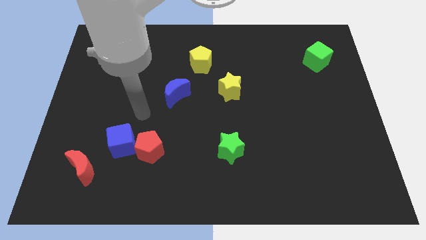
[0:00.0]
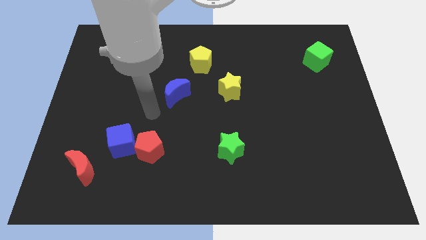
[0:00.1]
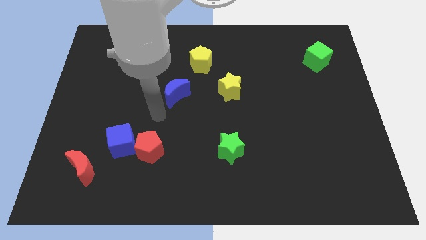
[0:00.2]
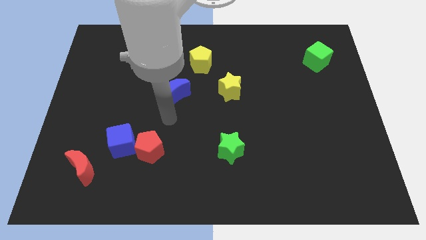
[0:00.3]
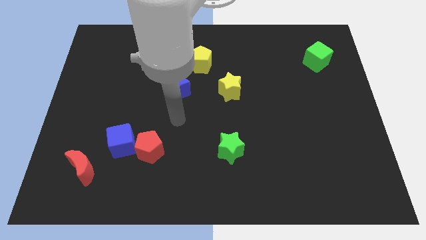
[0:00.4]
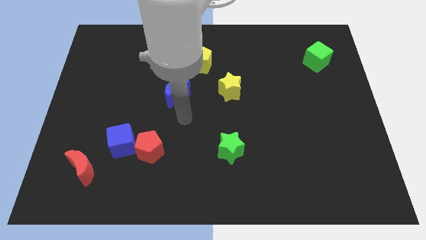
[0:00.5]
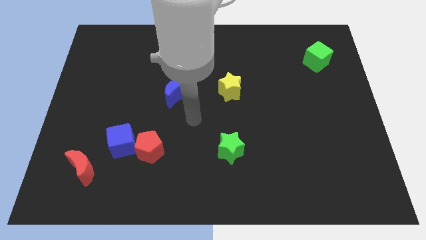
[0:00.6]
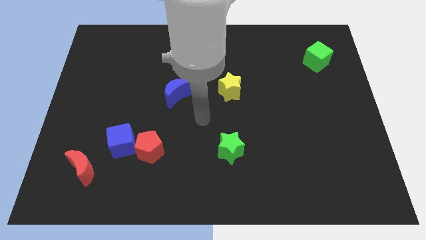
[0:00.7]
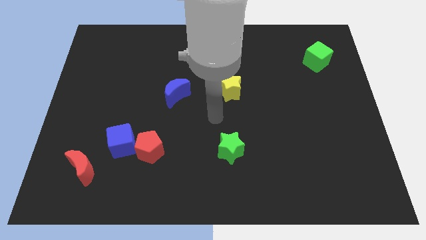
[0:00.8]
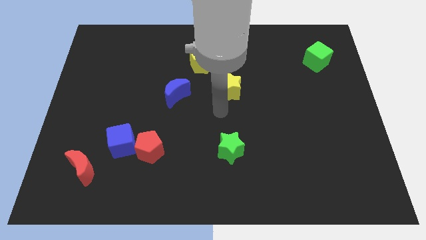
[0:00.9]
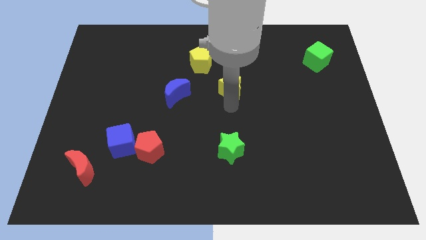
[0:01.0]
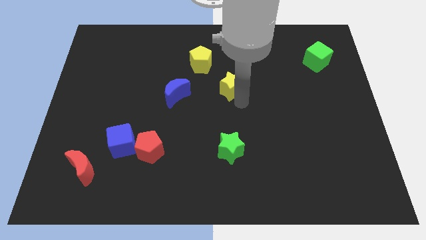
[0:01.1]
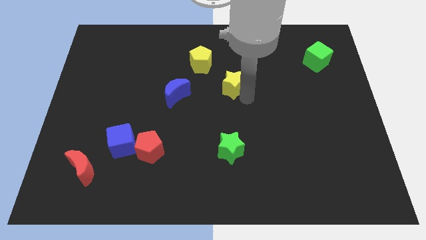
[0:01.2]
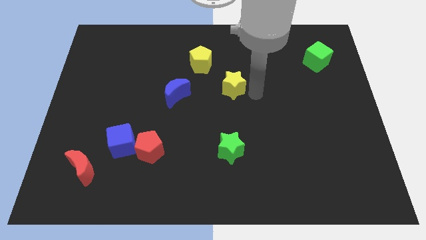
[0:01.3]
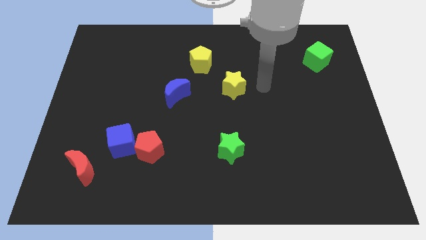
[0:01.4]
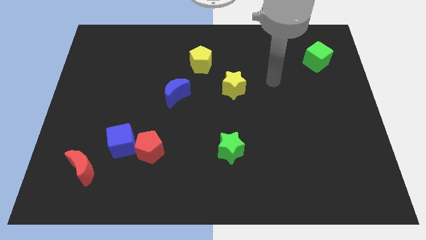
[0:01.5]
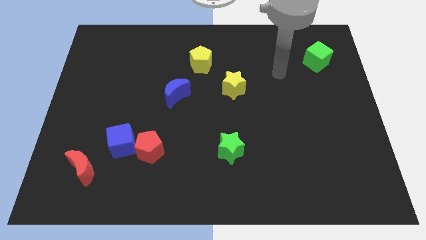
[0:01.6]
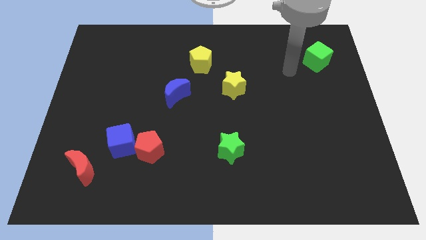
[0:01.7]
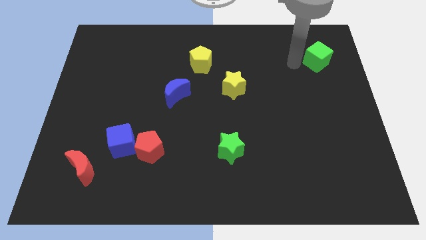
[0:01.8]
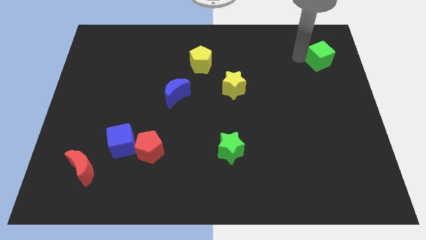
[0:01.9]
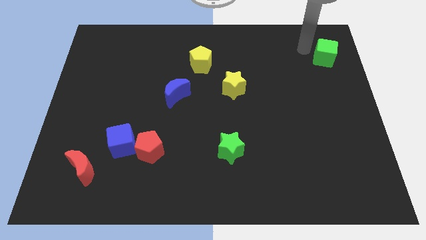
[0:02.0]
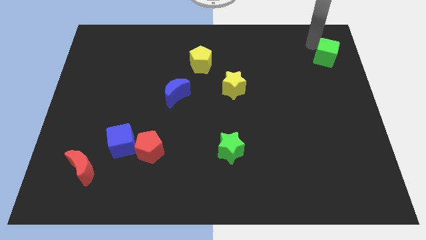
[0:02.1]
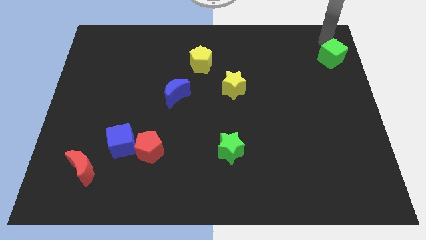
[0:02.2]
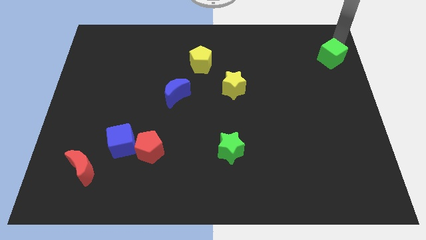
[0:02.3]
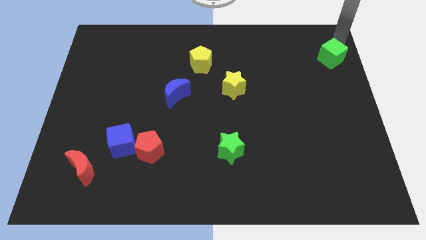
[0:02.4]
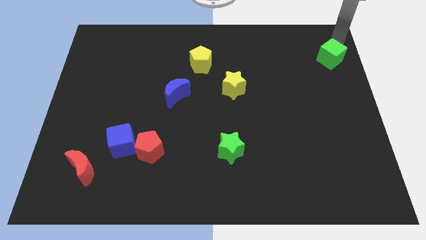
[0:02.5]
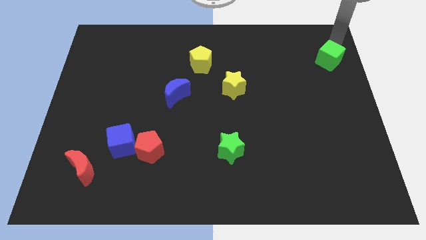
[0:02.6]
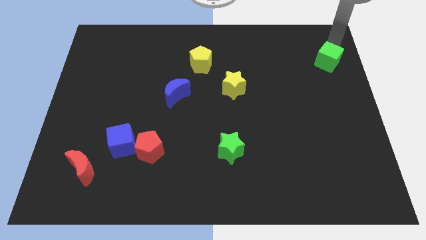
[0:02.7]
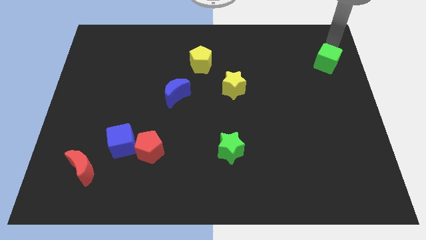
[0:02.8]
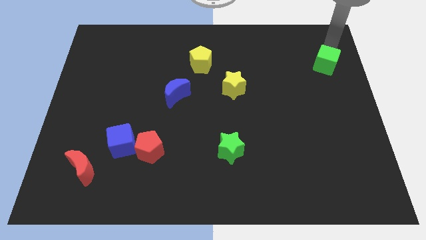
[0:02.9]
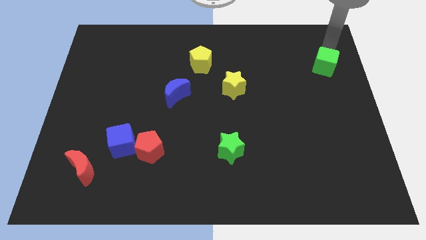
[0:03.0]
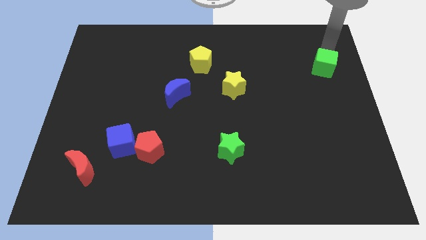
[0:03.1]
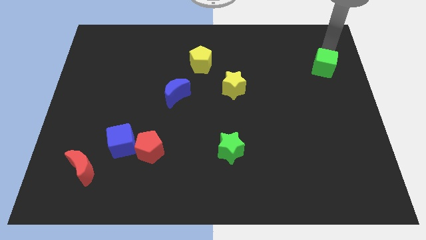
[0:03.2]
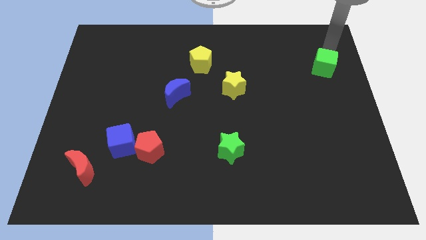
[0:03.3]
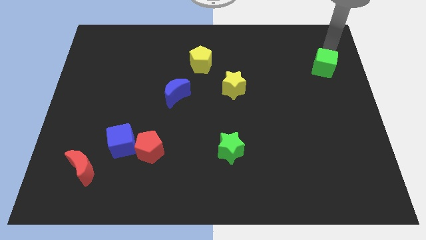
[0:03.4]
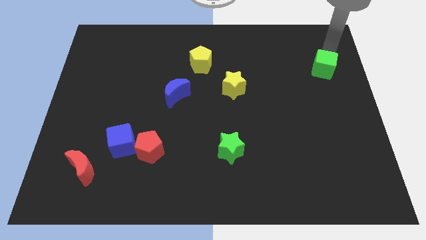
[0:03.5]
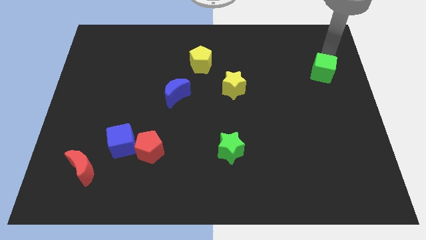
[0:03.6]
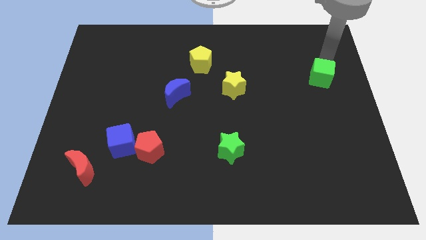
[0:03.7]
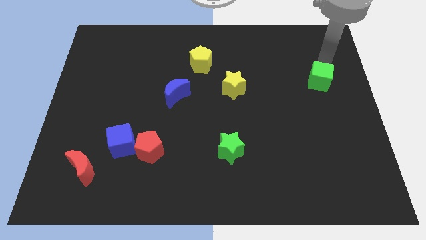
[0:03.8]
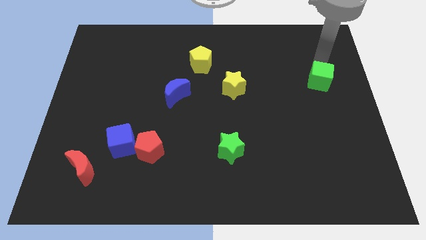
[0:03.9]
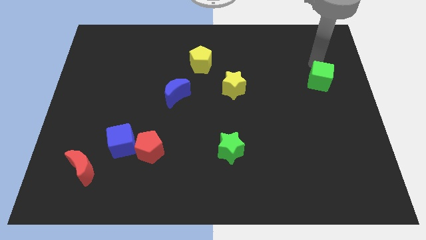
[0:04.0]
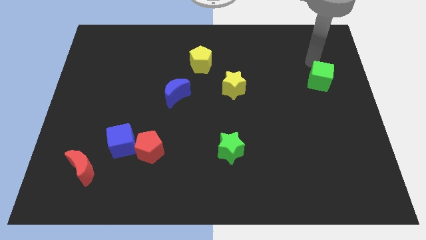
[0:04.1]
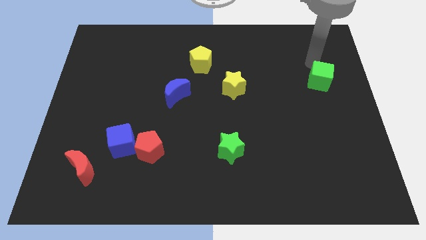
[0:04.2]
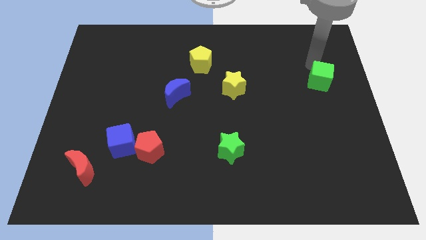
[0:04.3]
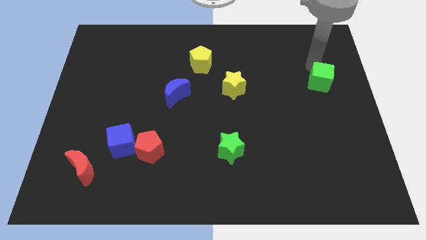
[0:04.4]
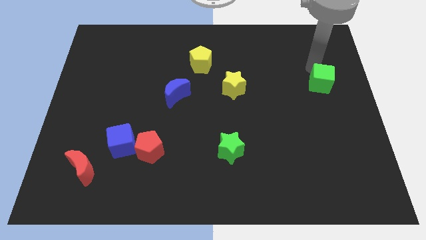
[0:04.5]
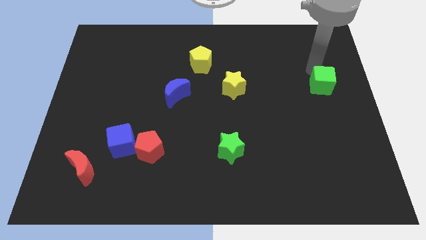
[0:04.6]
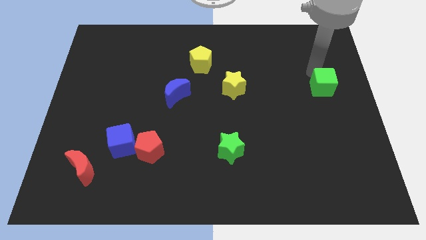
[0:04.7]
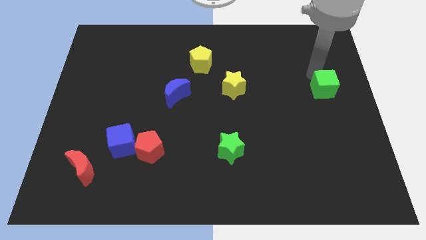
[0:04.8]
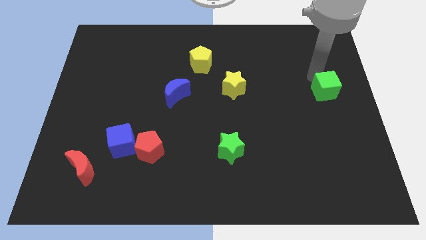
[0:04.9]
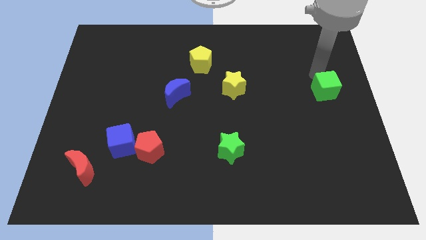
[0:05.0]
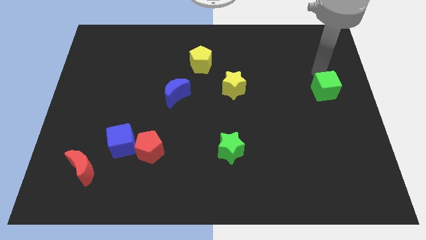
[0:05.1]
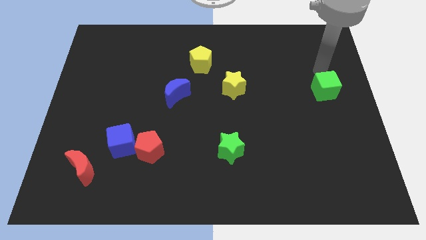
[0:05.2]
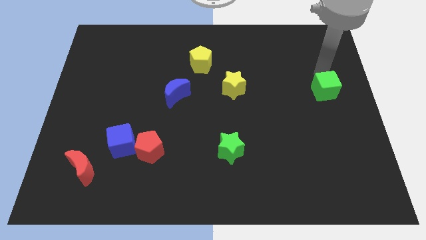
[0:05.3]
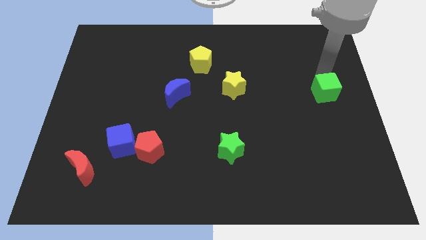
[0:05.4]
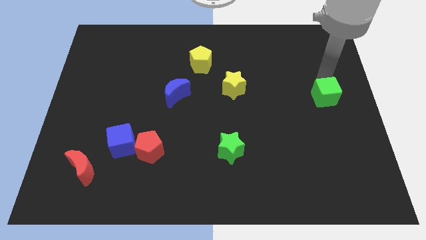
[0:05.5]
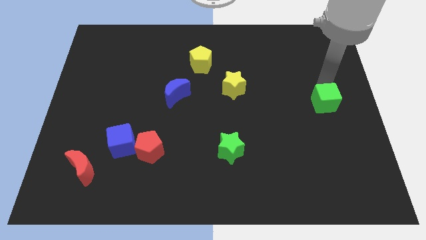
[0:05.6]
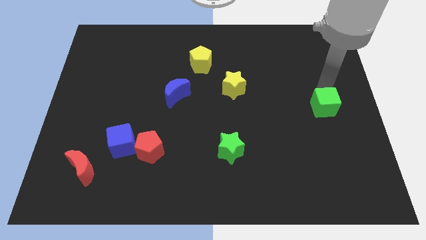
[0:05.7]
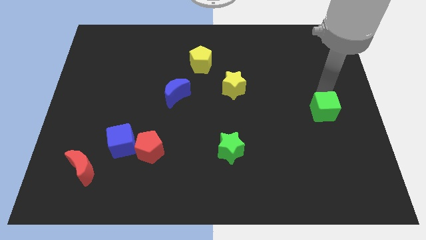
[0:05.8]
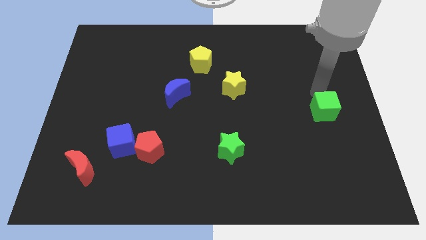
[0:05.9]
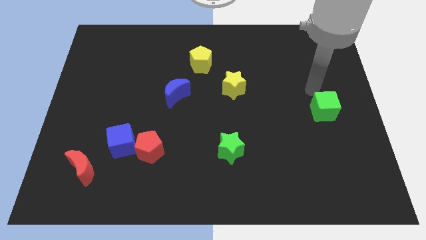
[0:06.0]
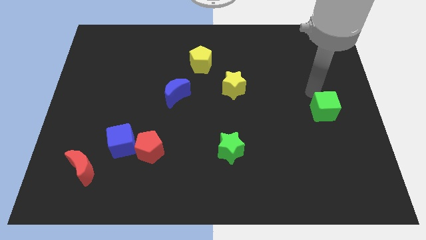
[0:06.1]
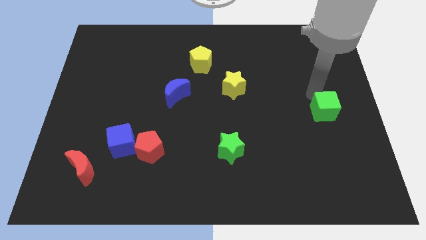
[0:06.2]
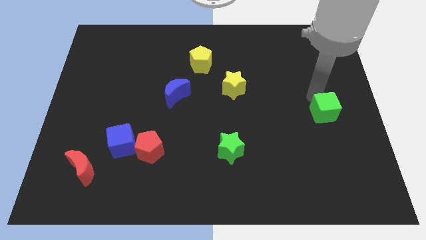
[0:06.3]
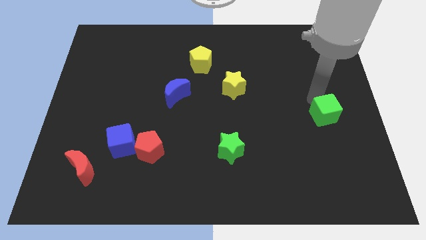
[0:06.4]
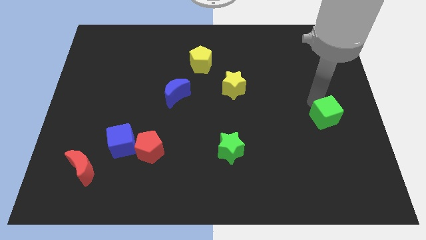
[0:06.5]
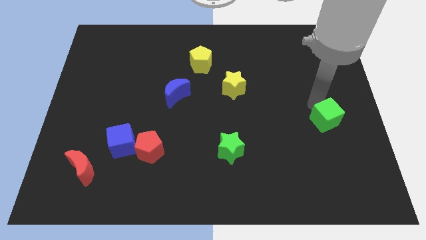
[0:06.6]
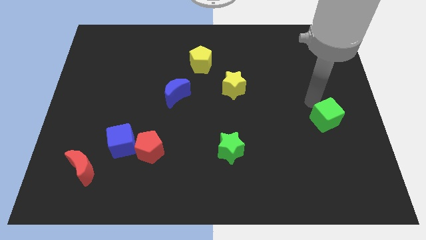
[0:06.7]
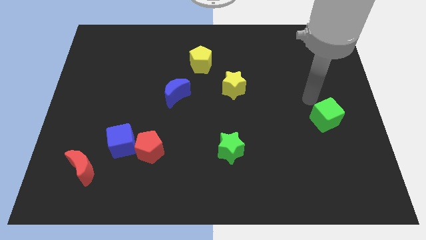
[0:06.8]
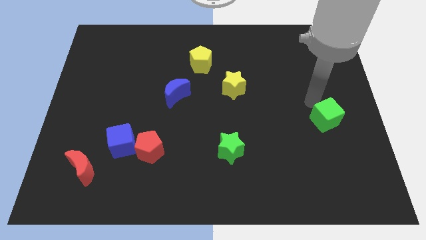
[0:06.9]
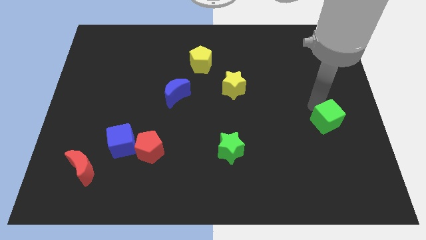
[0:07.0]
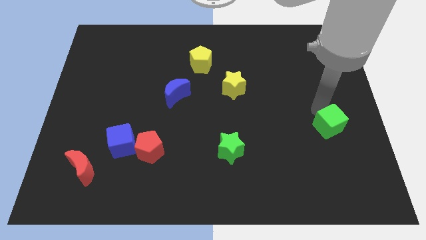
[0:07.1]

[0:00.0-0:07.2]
slide the green cube downwards

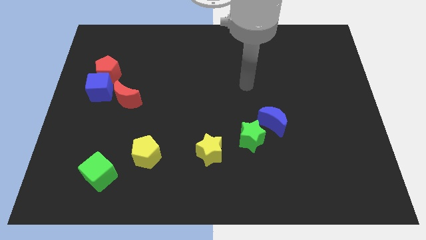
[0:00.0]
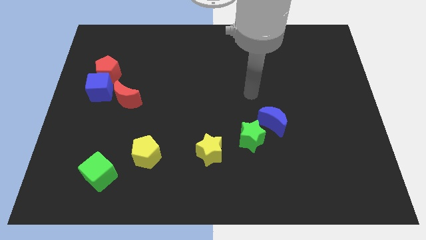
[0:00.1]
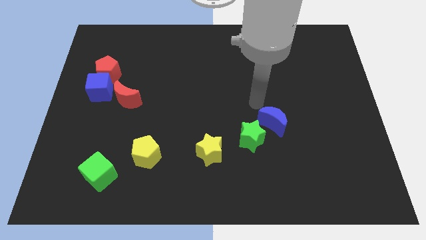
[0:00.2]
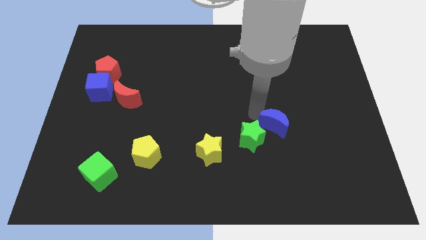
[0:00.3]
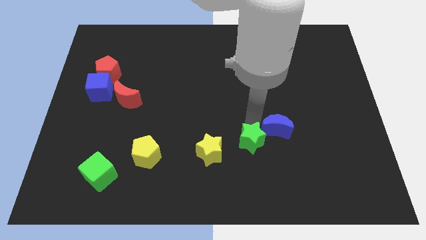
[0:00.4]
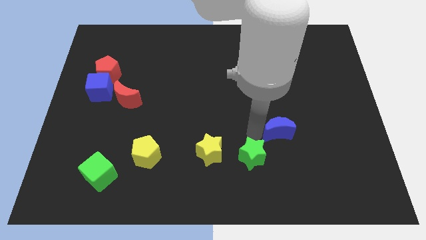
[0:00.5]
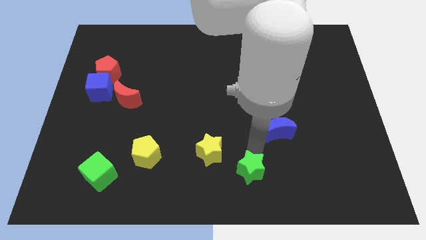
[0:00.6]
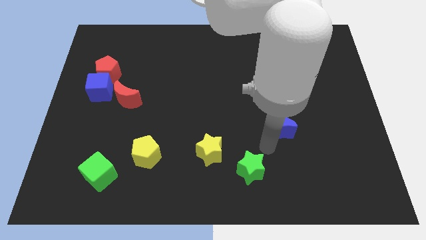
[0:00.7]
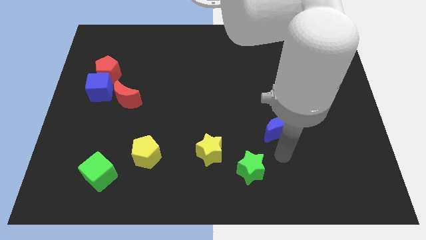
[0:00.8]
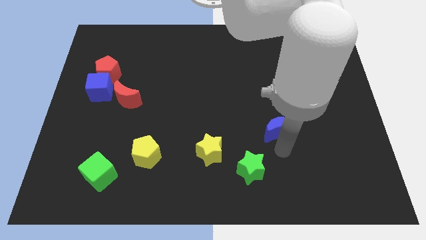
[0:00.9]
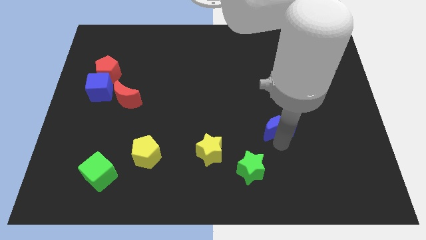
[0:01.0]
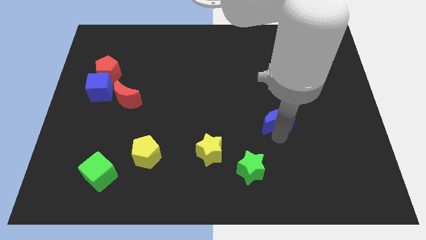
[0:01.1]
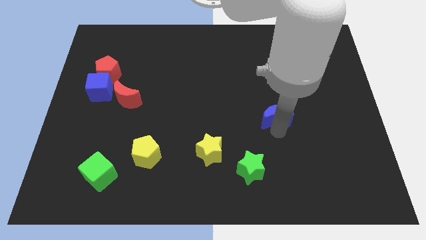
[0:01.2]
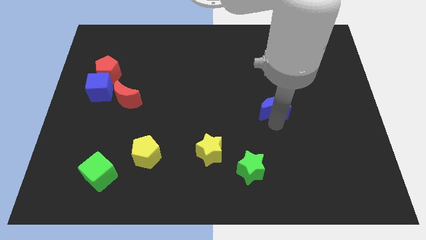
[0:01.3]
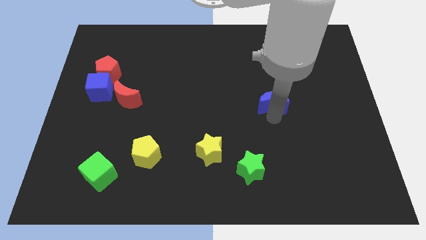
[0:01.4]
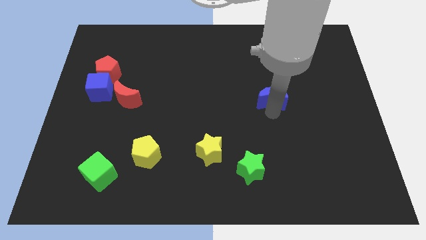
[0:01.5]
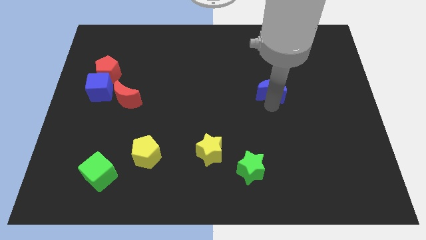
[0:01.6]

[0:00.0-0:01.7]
slide the blue moon a little up
